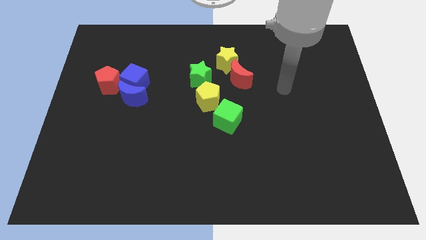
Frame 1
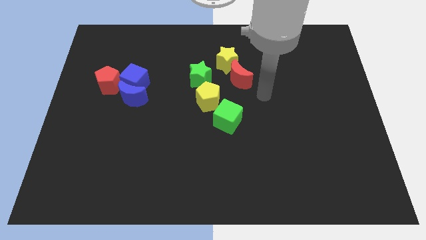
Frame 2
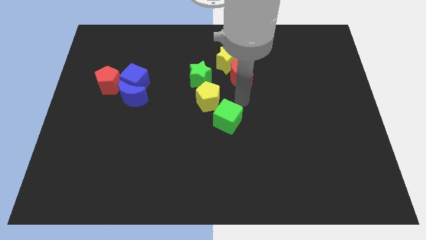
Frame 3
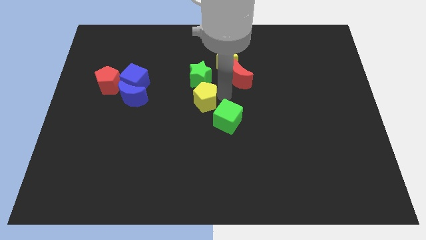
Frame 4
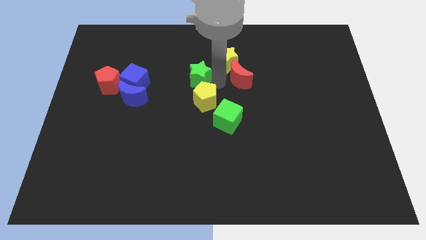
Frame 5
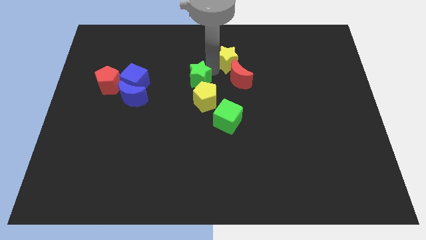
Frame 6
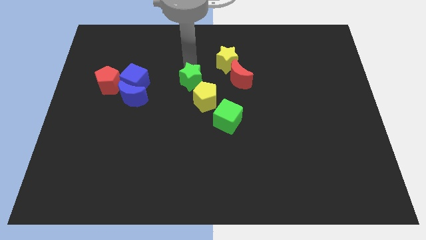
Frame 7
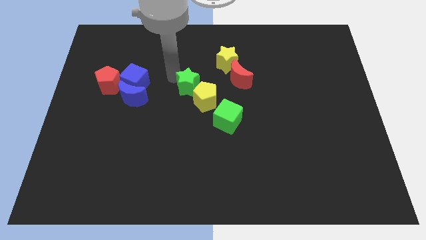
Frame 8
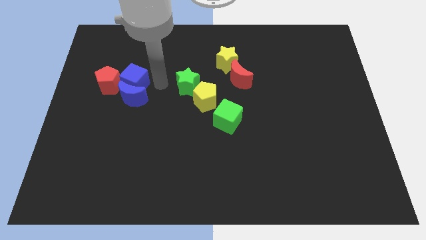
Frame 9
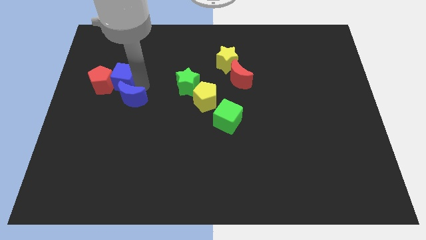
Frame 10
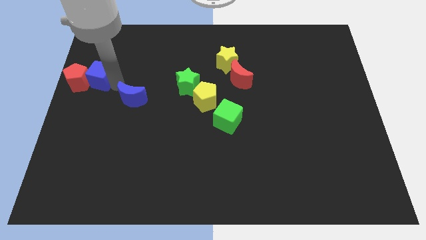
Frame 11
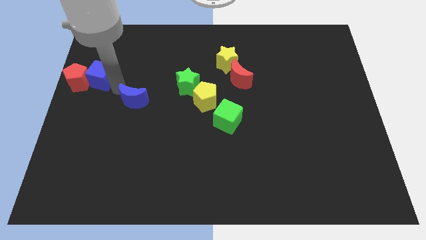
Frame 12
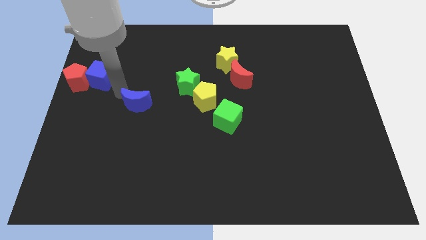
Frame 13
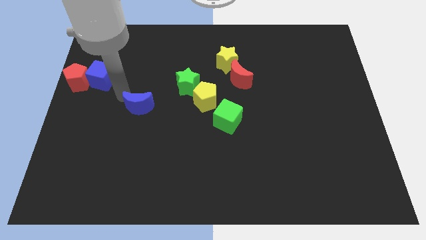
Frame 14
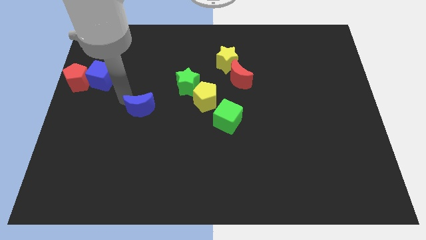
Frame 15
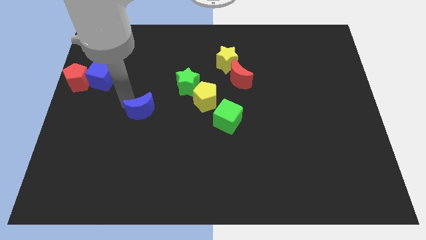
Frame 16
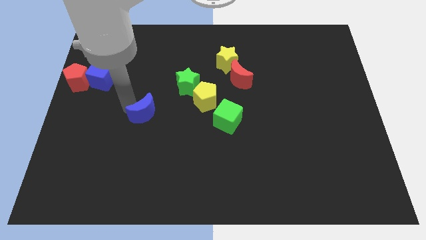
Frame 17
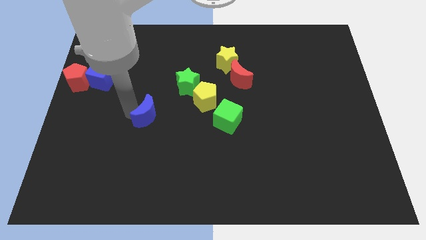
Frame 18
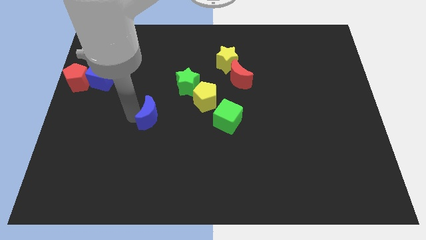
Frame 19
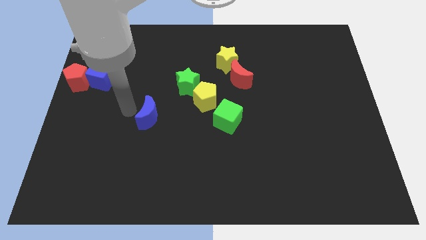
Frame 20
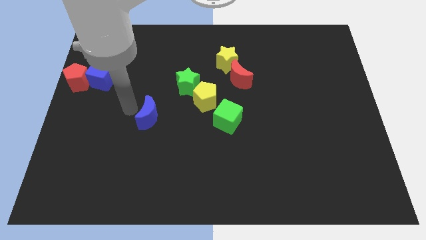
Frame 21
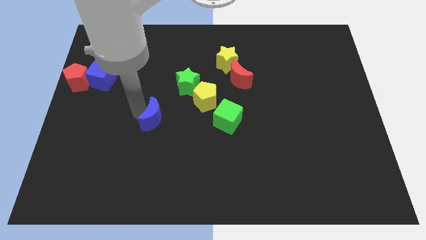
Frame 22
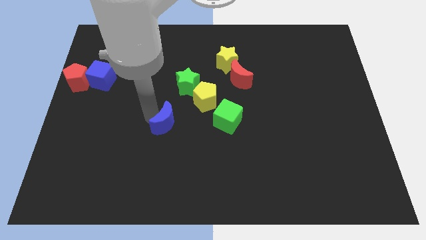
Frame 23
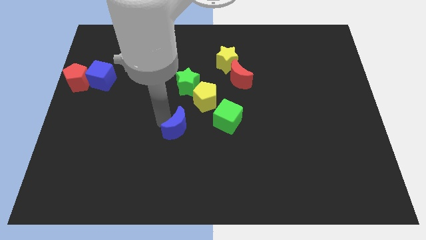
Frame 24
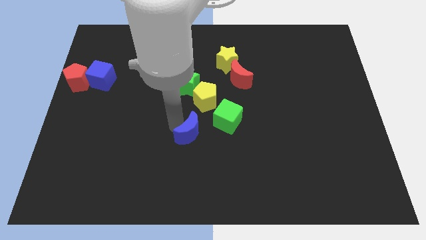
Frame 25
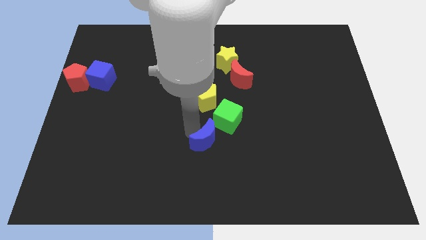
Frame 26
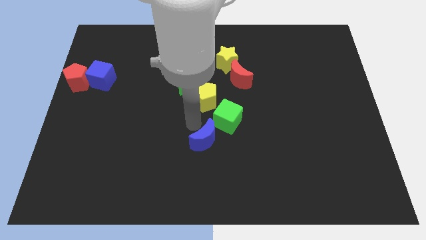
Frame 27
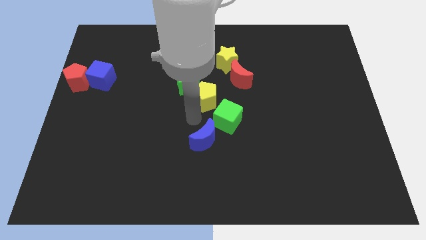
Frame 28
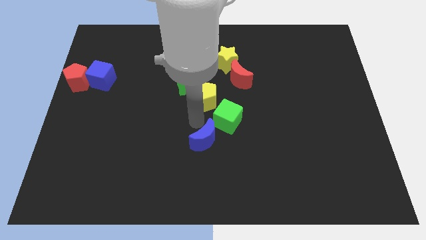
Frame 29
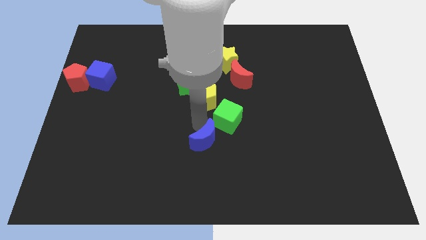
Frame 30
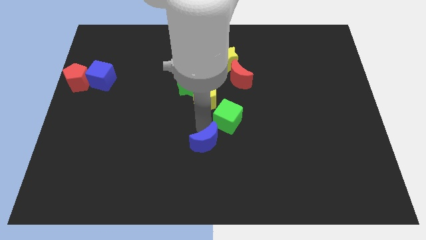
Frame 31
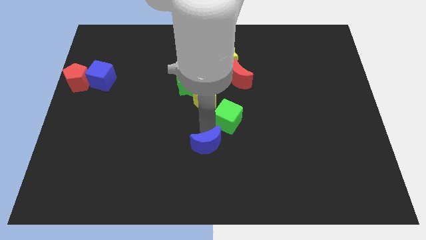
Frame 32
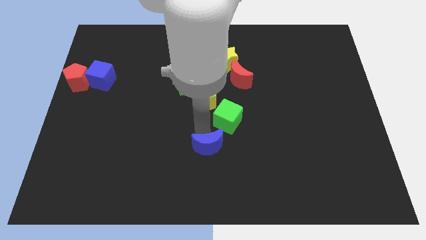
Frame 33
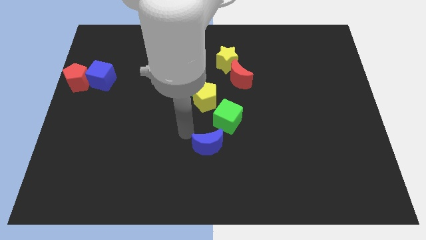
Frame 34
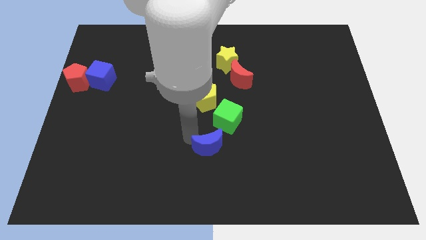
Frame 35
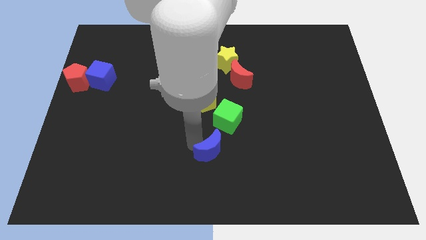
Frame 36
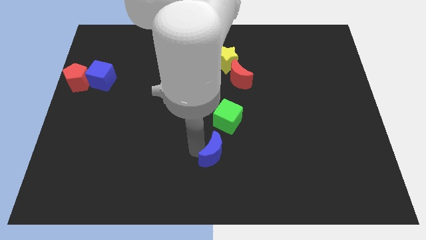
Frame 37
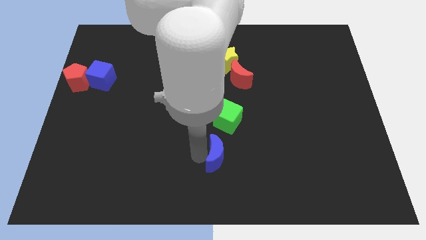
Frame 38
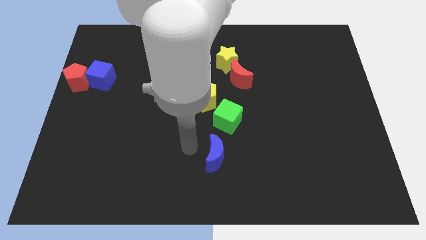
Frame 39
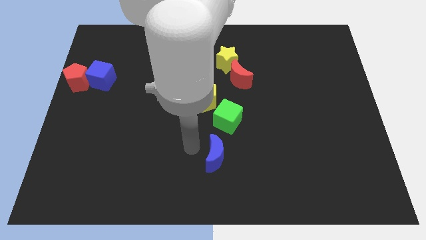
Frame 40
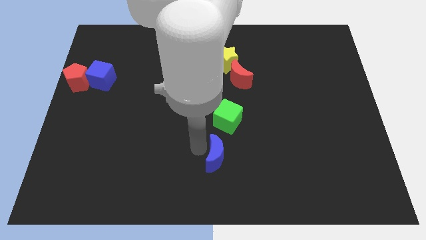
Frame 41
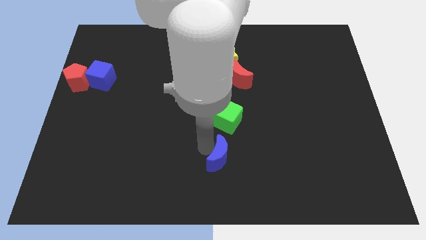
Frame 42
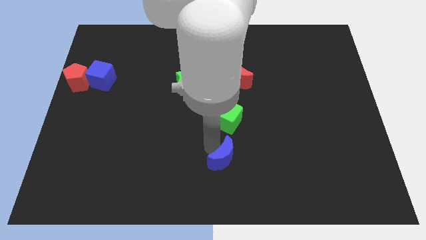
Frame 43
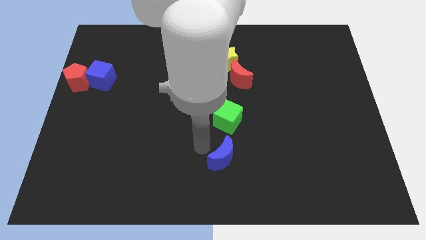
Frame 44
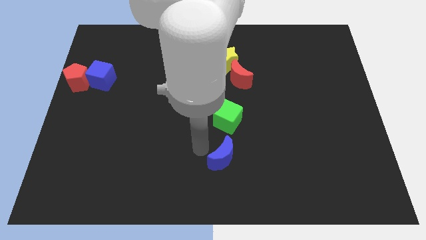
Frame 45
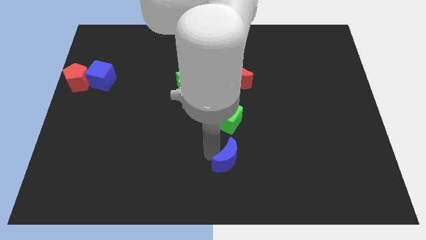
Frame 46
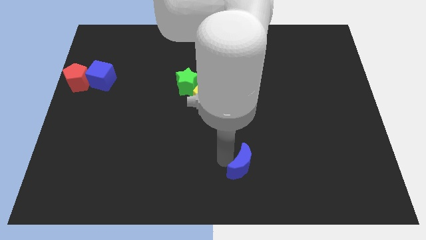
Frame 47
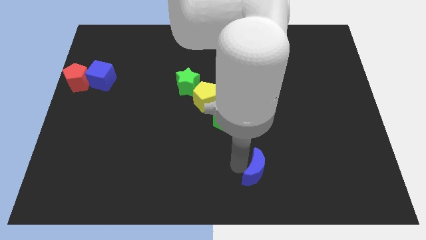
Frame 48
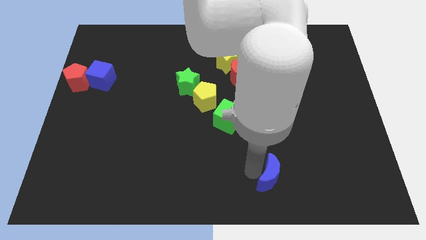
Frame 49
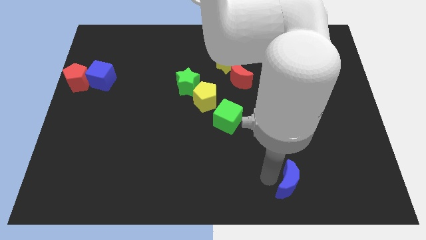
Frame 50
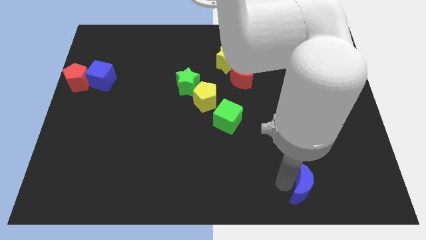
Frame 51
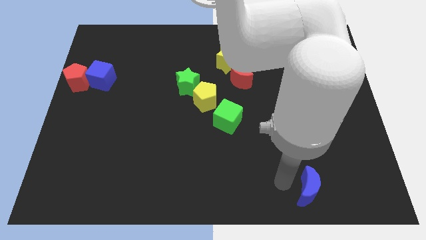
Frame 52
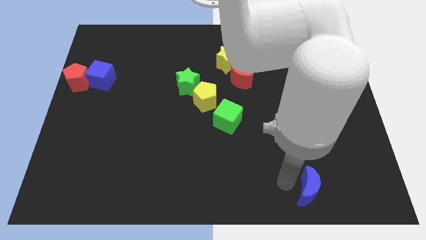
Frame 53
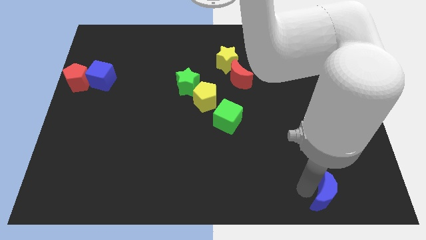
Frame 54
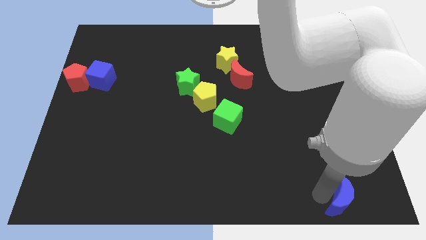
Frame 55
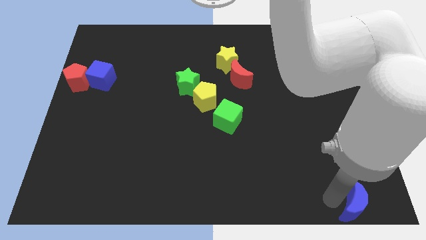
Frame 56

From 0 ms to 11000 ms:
slide the blue moon to the bottom right of the board
